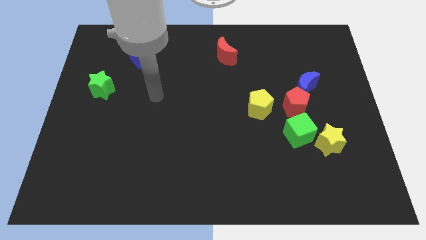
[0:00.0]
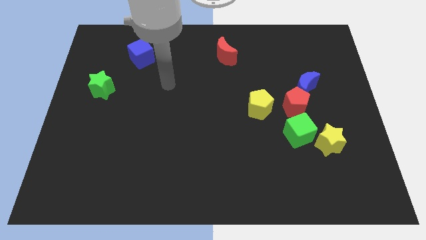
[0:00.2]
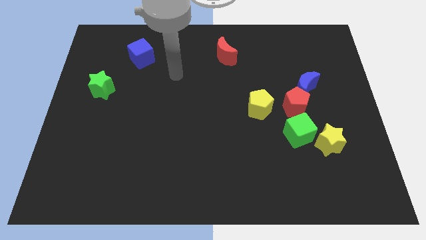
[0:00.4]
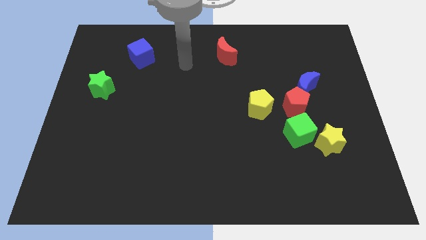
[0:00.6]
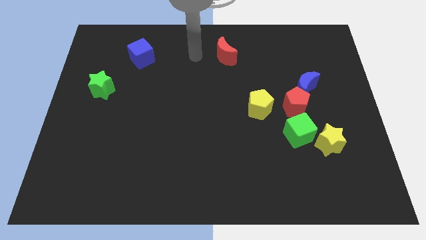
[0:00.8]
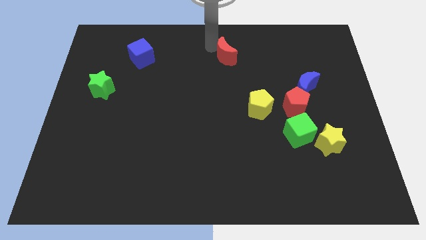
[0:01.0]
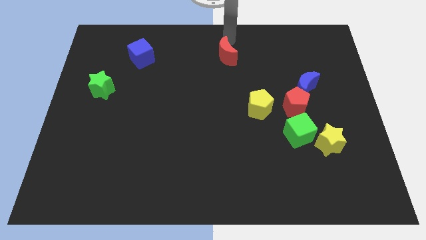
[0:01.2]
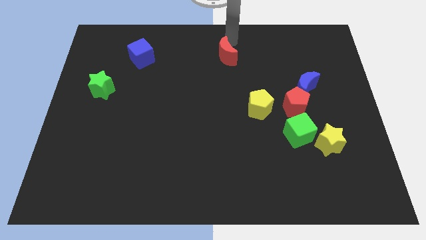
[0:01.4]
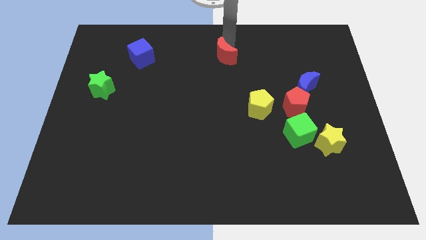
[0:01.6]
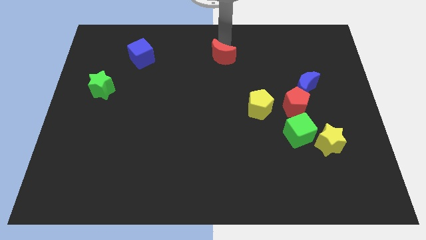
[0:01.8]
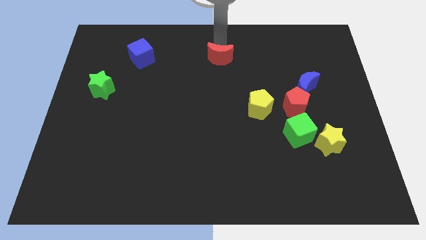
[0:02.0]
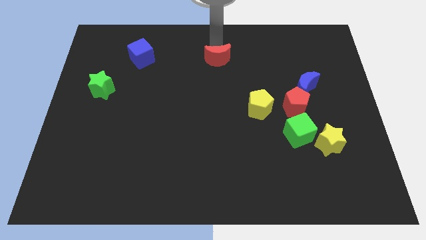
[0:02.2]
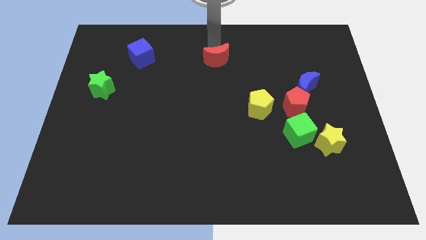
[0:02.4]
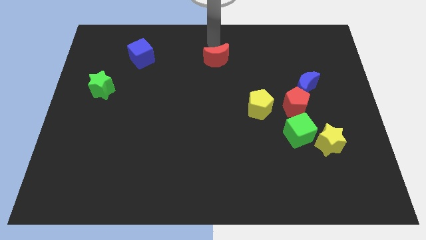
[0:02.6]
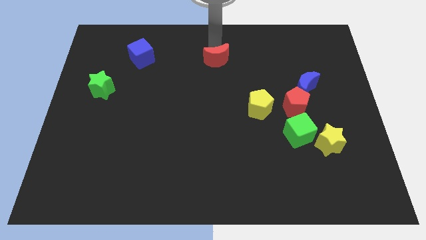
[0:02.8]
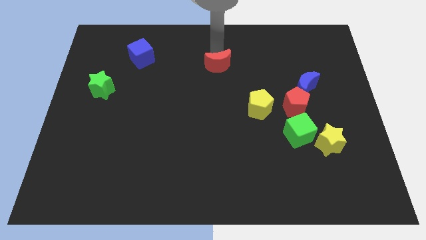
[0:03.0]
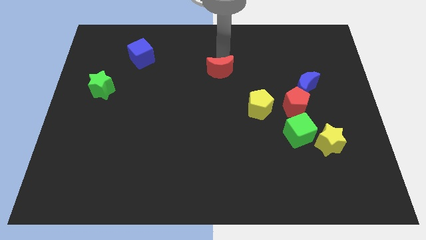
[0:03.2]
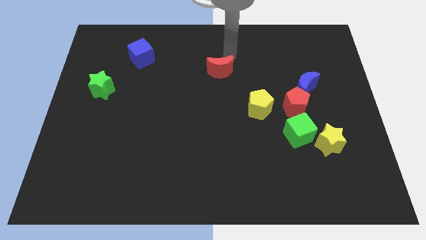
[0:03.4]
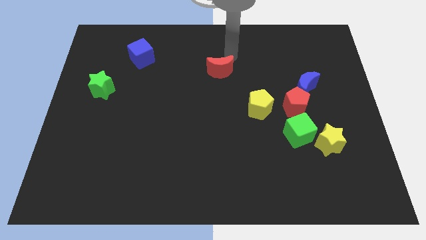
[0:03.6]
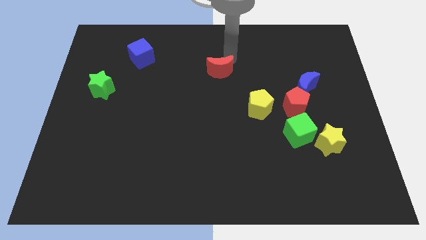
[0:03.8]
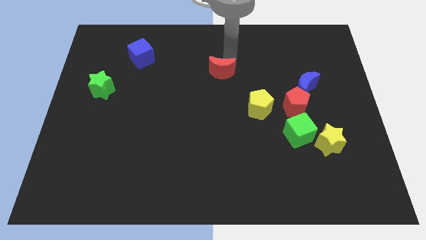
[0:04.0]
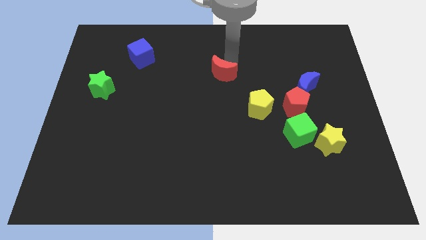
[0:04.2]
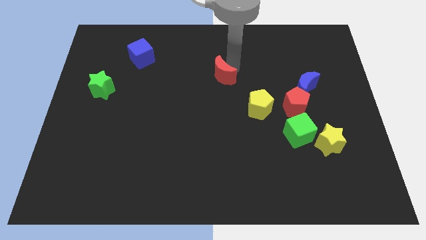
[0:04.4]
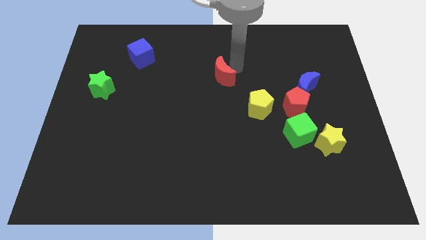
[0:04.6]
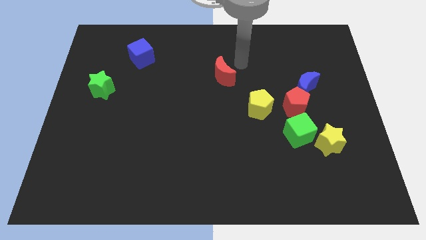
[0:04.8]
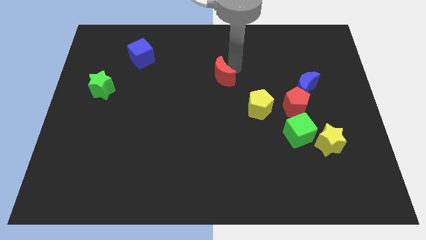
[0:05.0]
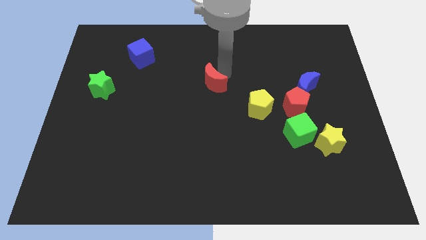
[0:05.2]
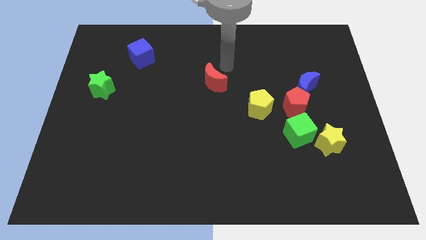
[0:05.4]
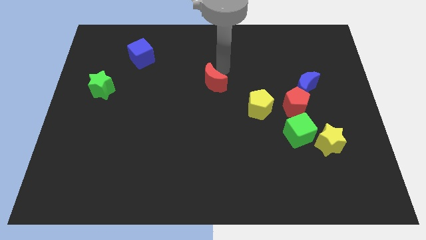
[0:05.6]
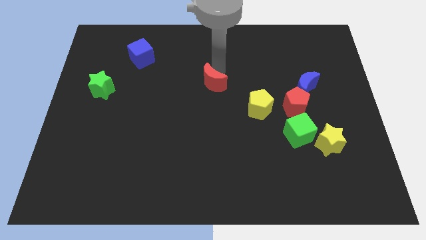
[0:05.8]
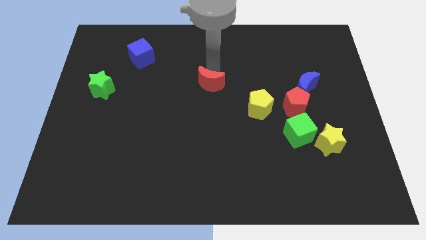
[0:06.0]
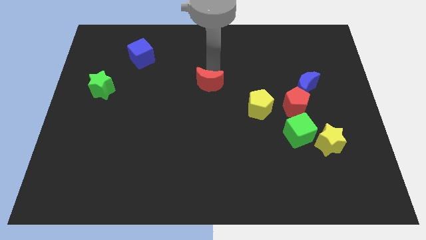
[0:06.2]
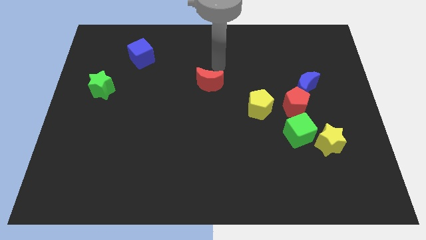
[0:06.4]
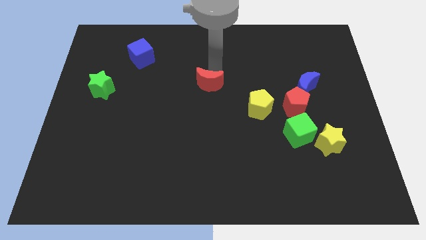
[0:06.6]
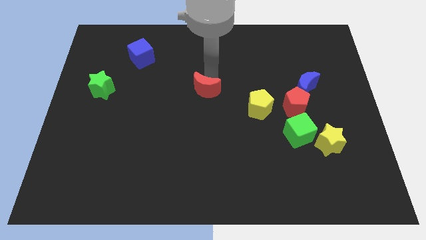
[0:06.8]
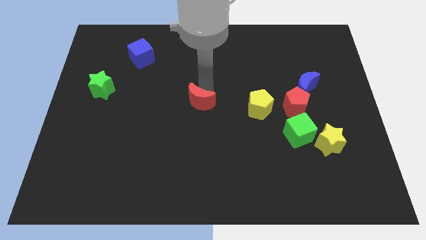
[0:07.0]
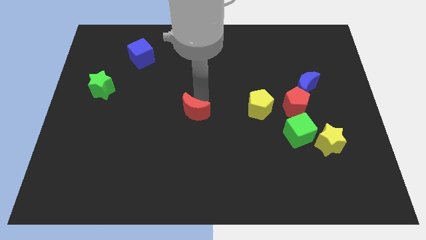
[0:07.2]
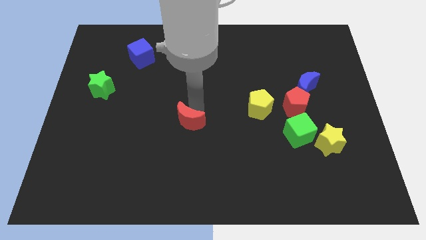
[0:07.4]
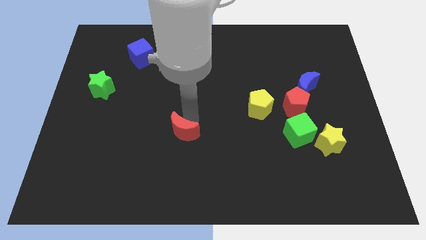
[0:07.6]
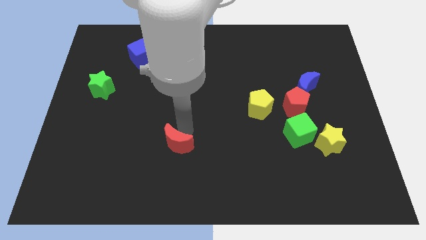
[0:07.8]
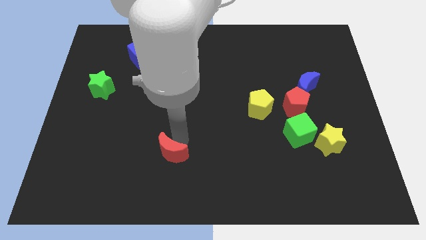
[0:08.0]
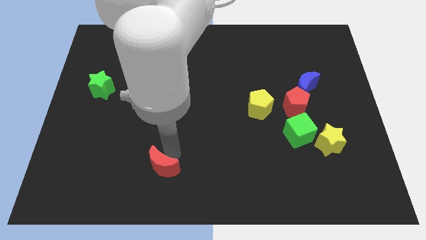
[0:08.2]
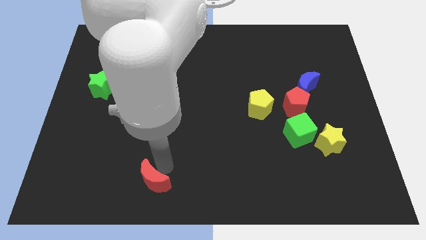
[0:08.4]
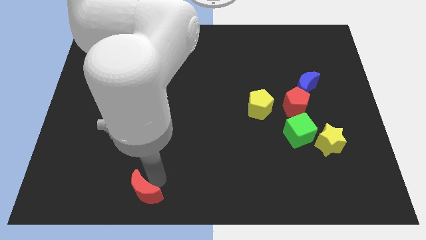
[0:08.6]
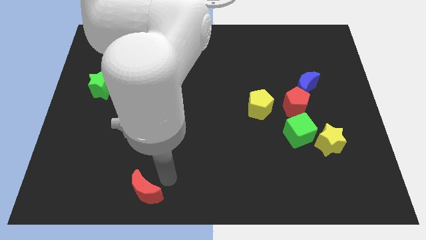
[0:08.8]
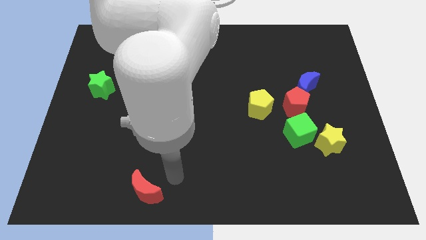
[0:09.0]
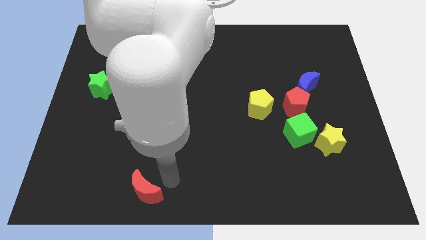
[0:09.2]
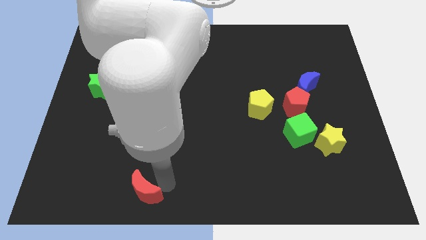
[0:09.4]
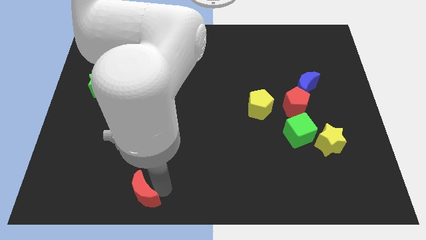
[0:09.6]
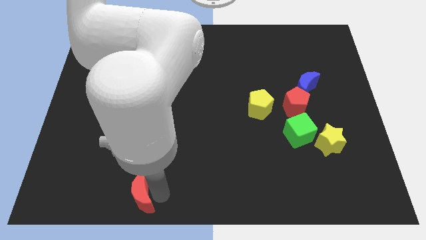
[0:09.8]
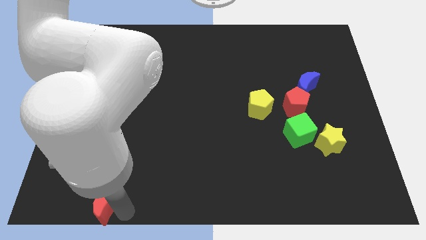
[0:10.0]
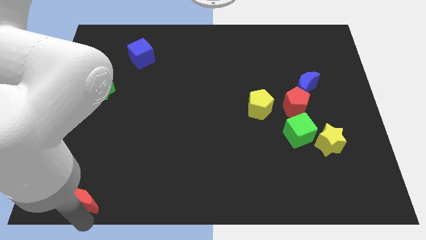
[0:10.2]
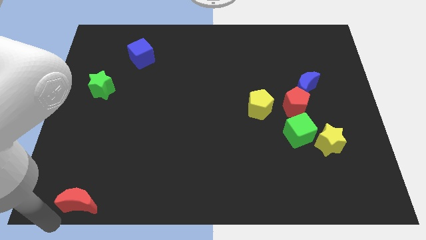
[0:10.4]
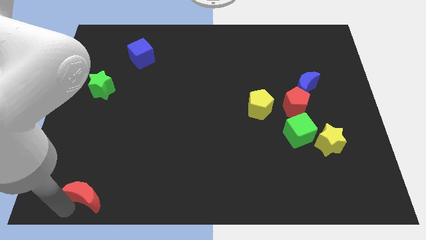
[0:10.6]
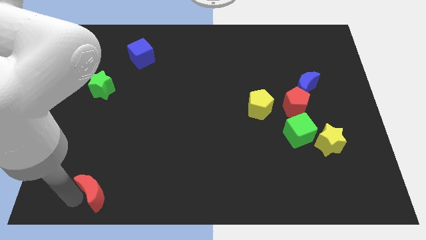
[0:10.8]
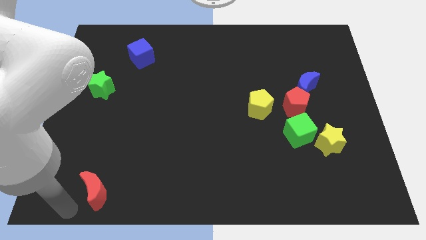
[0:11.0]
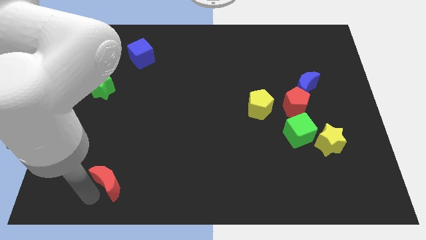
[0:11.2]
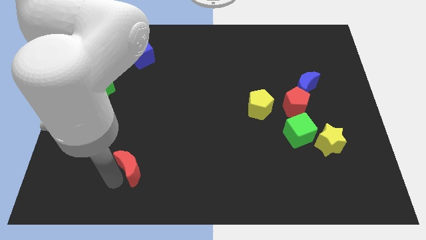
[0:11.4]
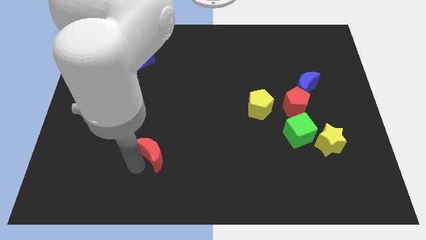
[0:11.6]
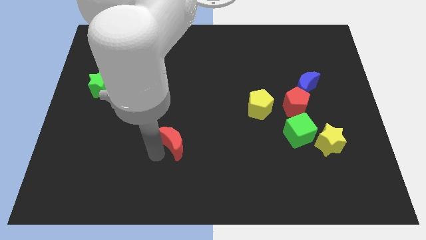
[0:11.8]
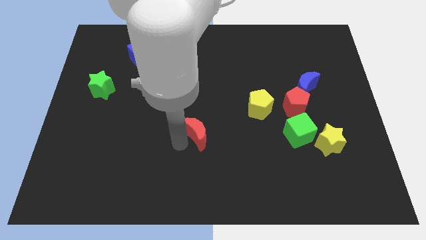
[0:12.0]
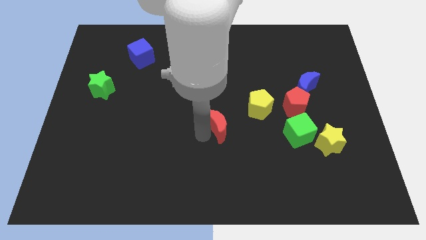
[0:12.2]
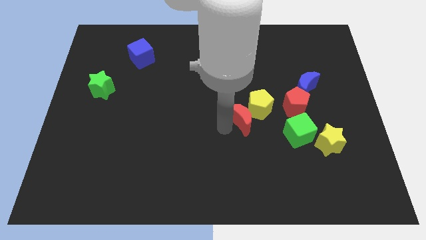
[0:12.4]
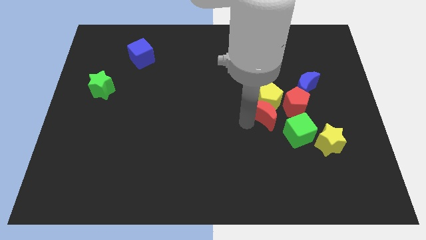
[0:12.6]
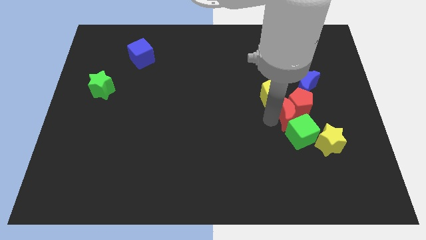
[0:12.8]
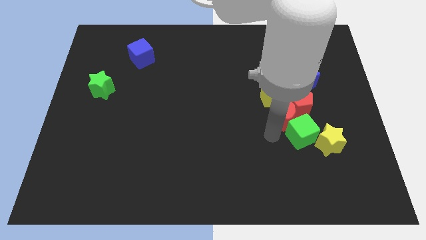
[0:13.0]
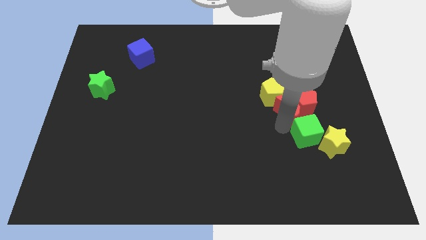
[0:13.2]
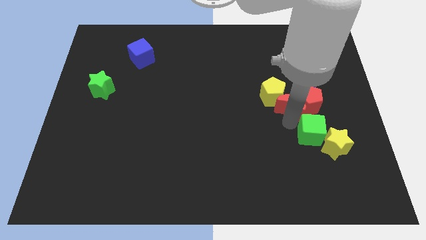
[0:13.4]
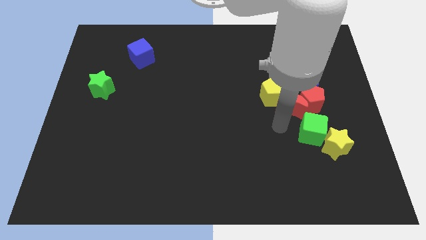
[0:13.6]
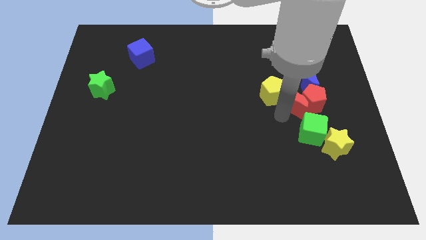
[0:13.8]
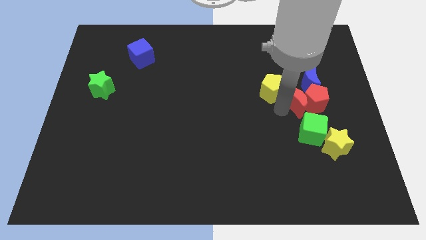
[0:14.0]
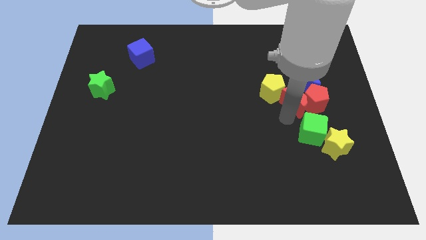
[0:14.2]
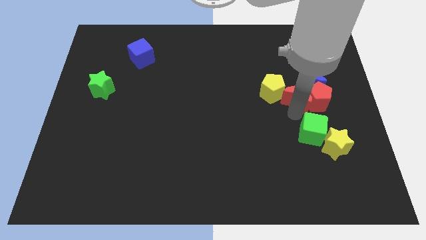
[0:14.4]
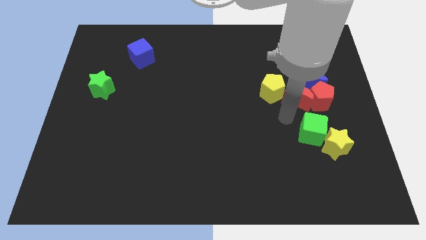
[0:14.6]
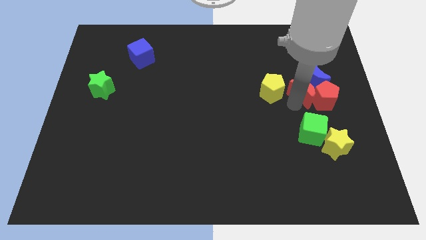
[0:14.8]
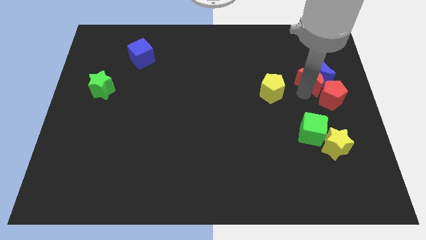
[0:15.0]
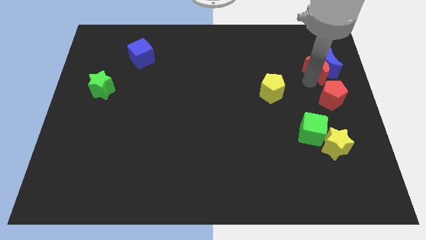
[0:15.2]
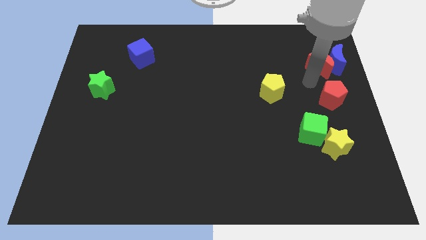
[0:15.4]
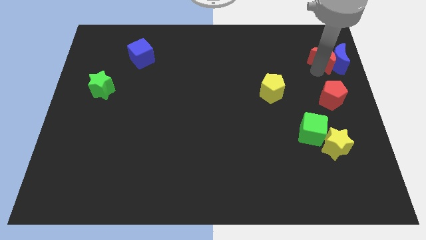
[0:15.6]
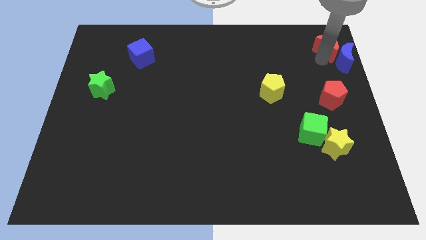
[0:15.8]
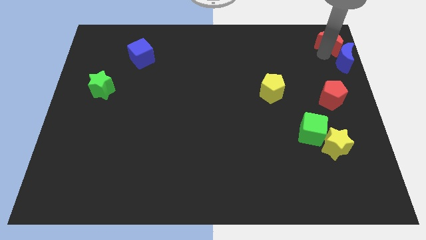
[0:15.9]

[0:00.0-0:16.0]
move the red moon to the top right corner
